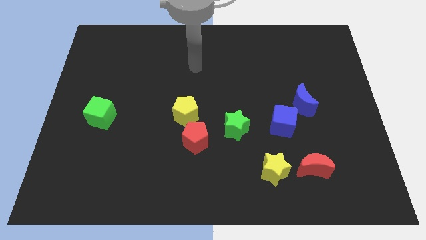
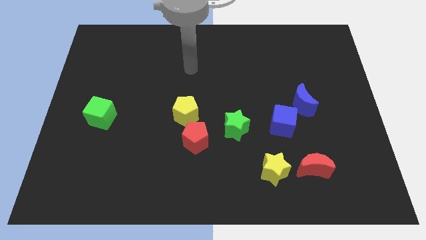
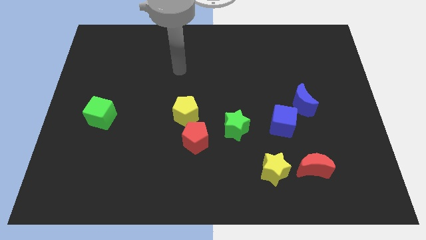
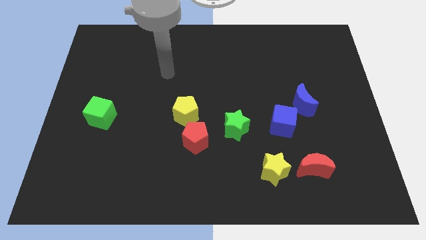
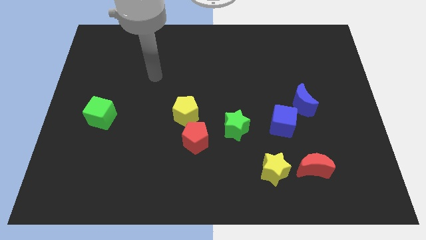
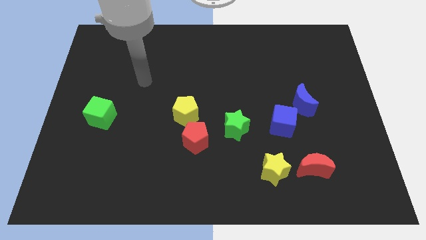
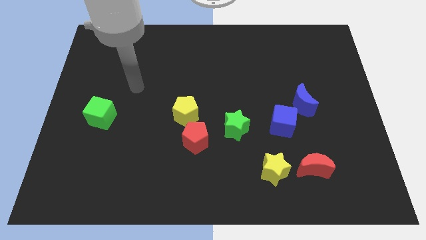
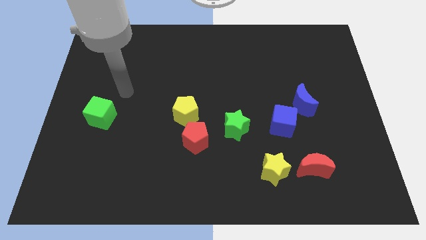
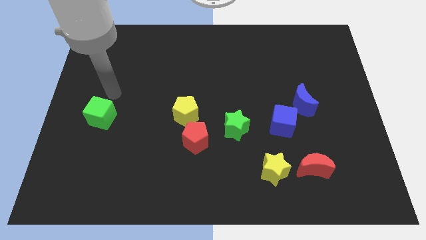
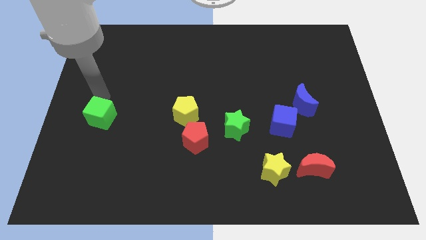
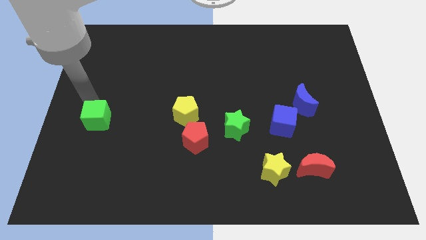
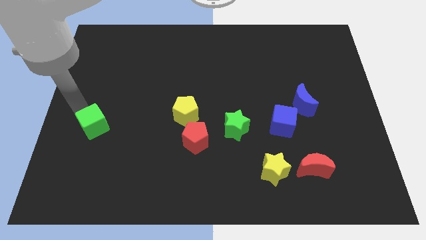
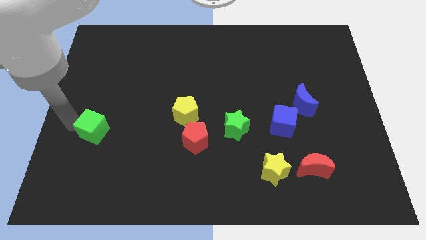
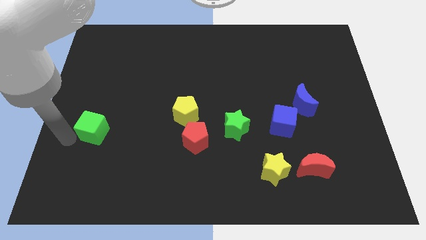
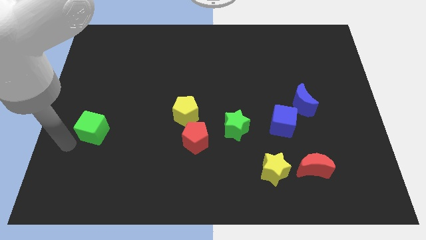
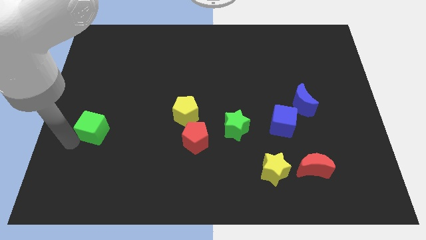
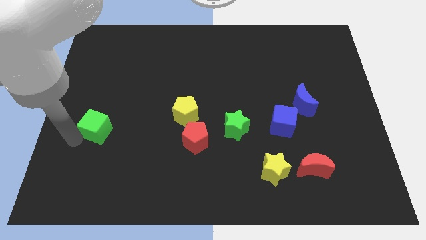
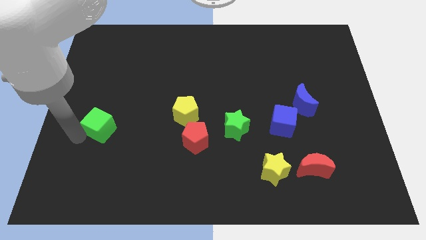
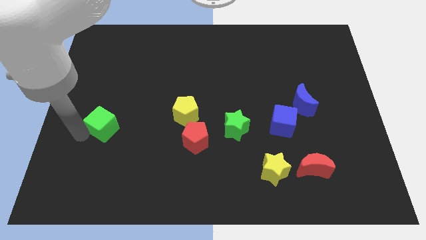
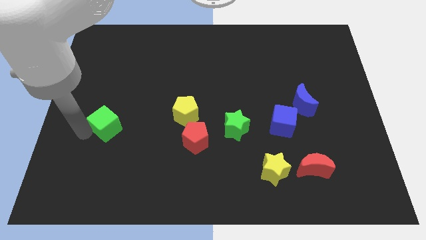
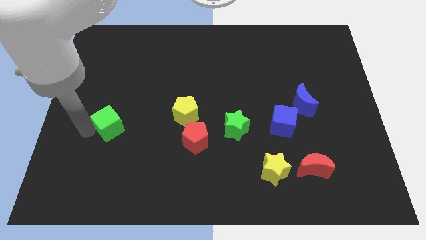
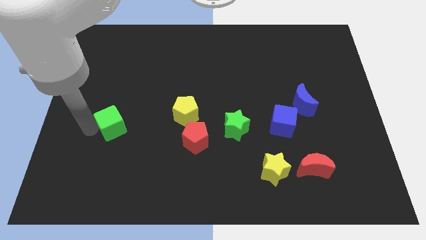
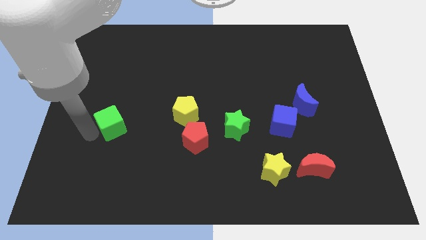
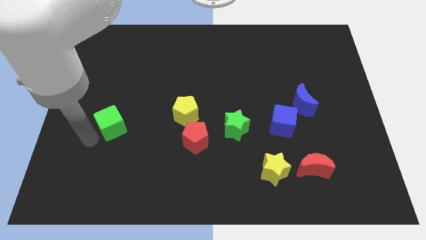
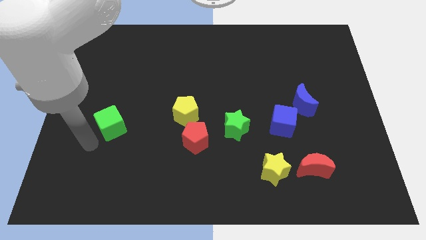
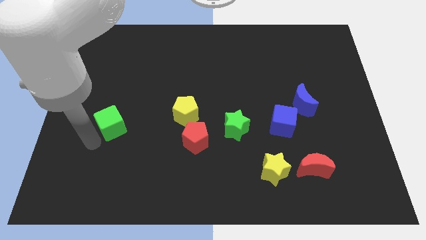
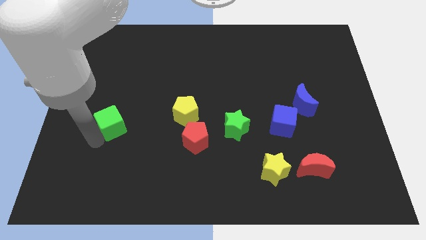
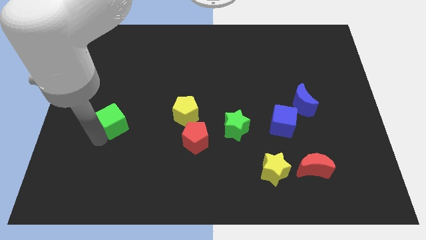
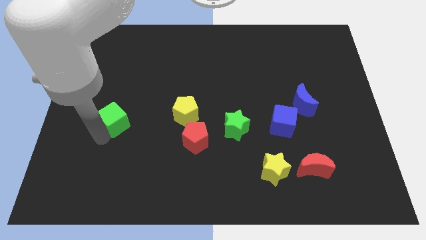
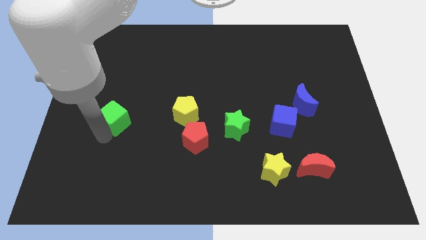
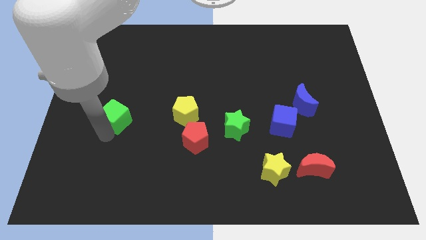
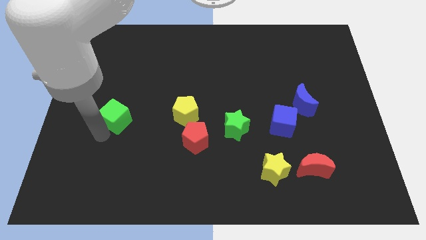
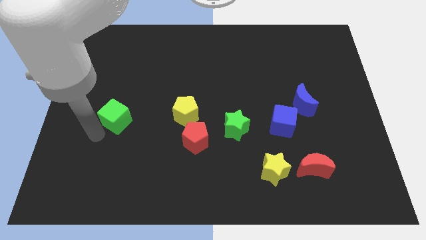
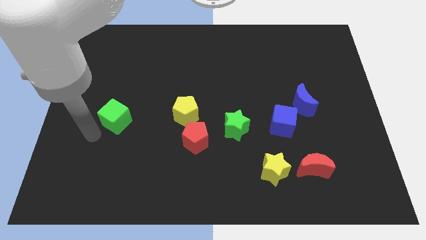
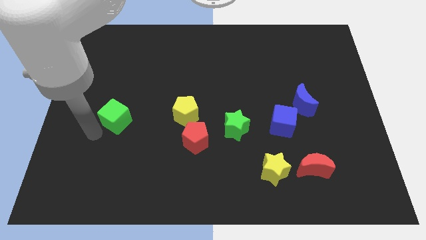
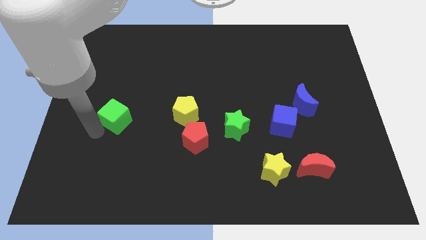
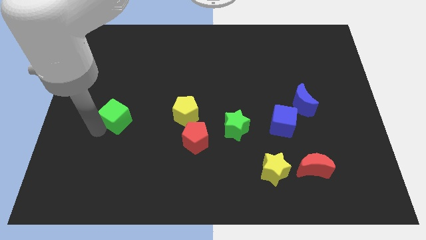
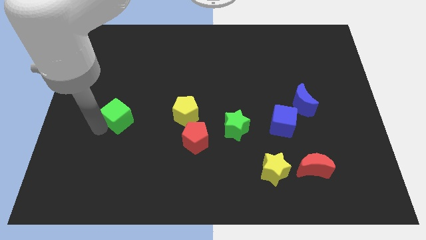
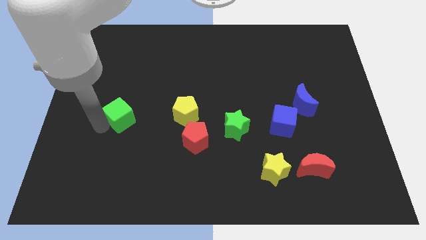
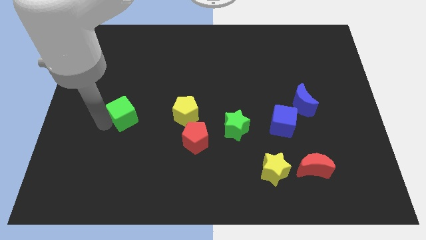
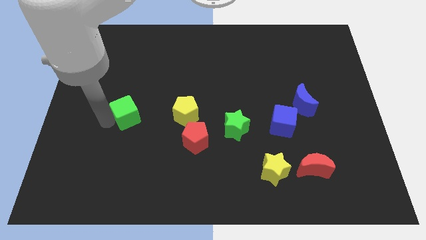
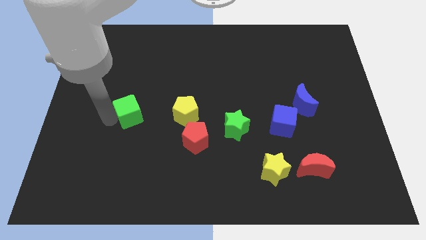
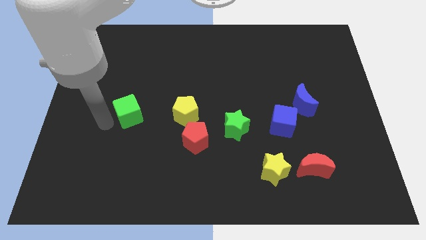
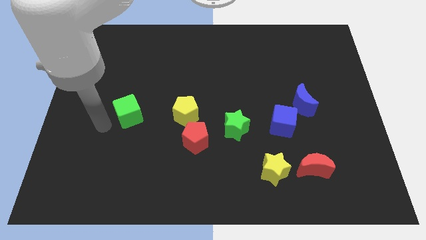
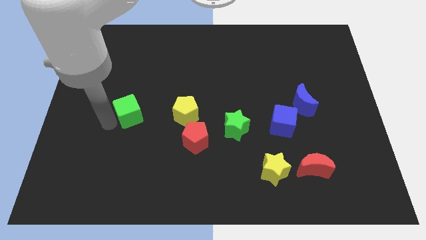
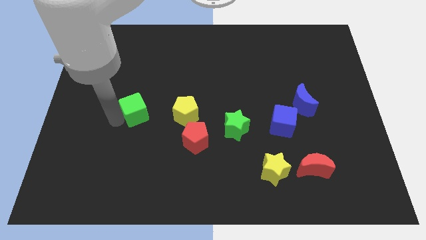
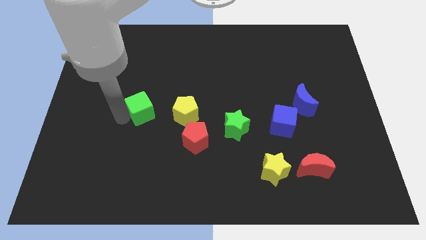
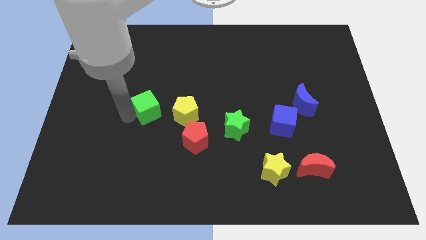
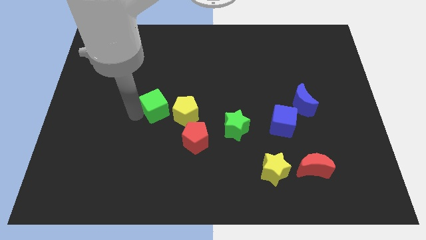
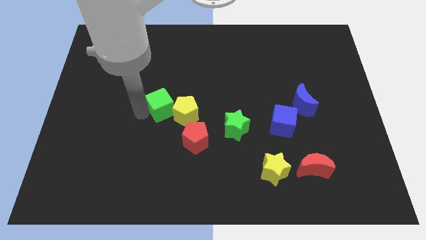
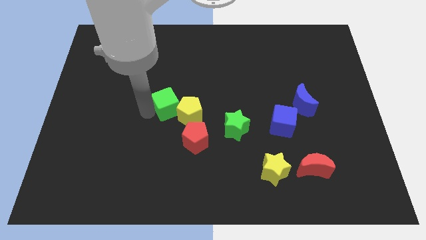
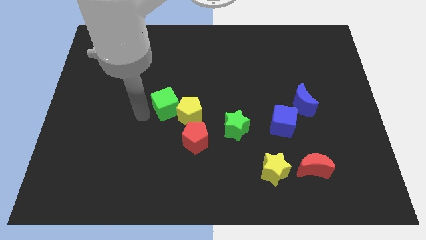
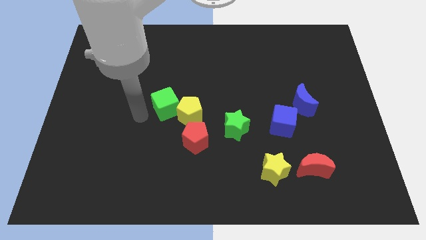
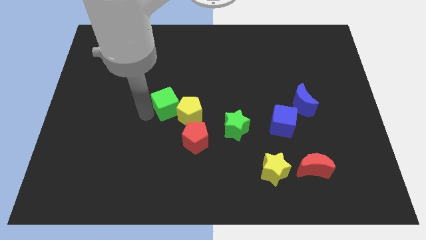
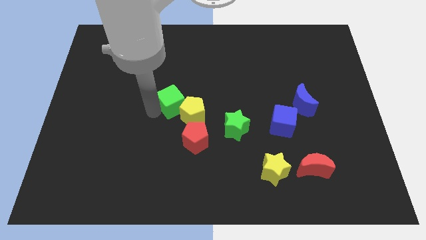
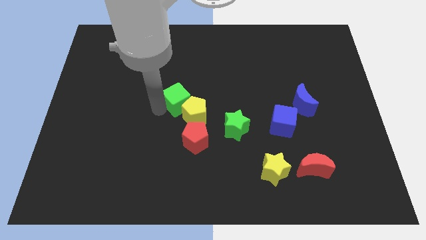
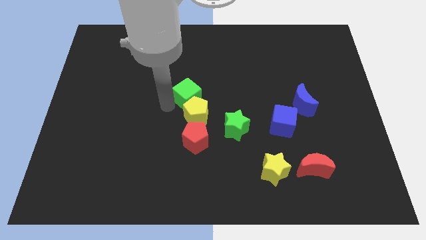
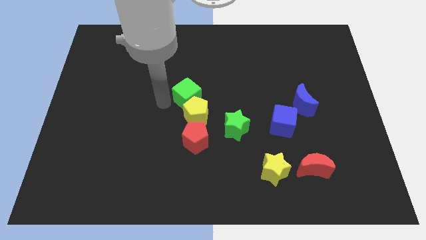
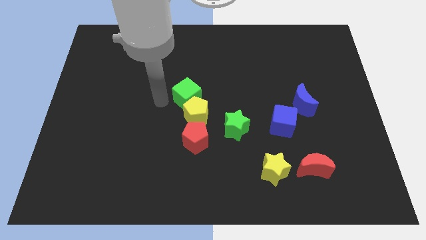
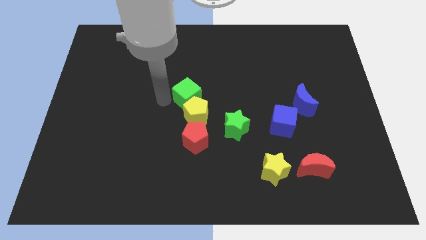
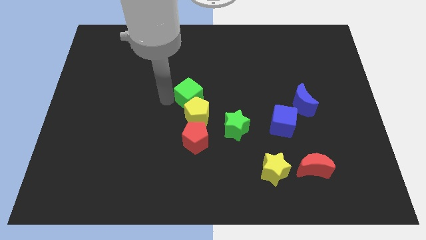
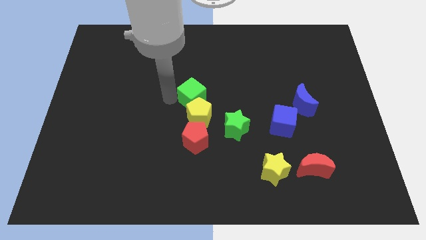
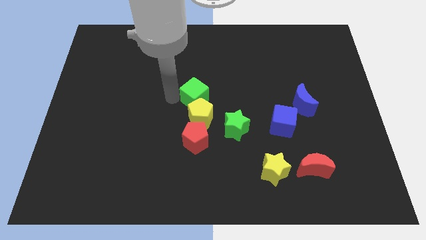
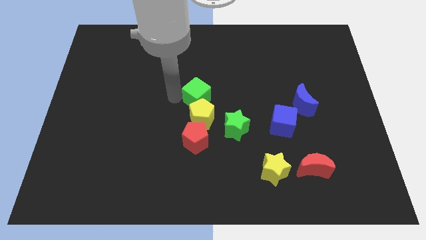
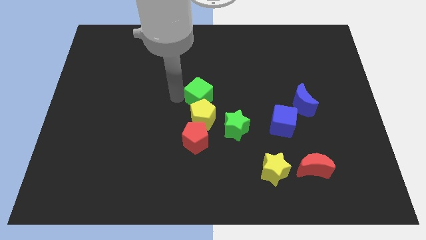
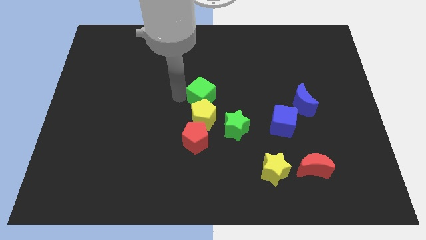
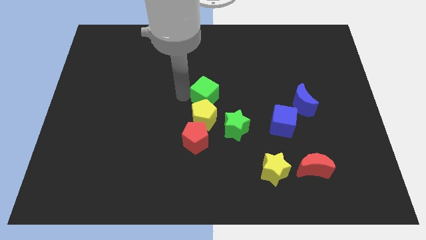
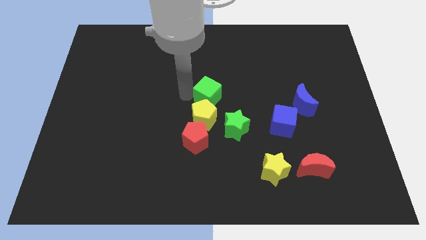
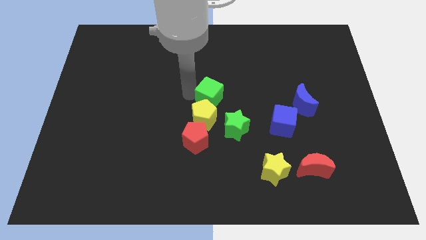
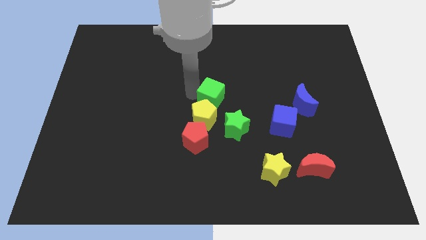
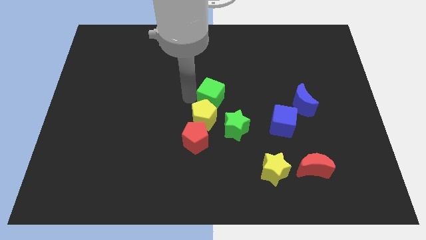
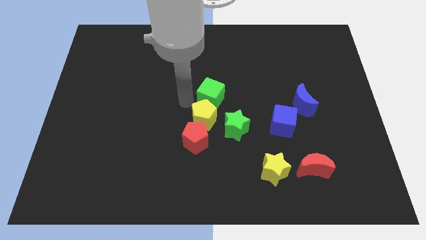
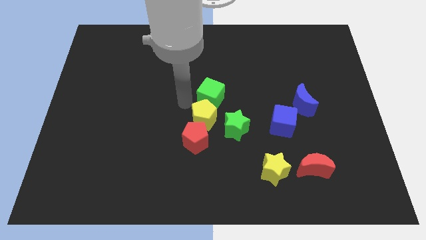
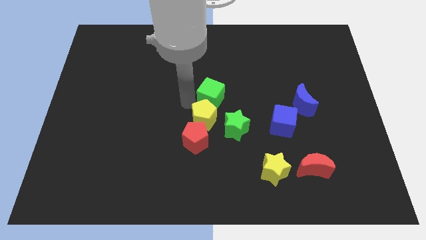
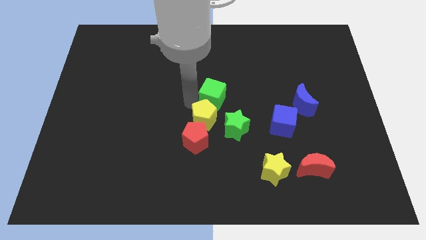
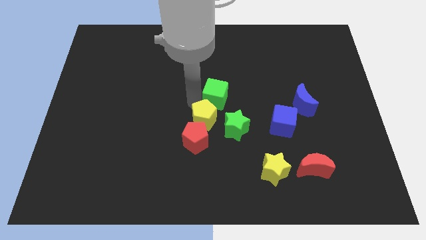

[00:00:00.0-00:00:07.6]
slide the green cube to the top of the green star
